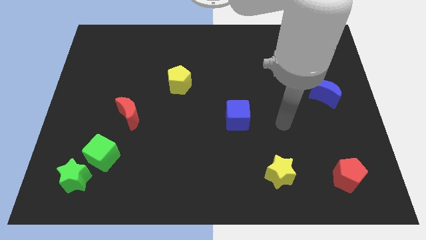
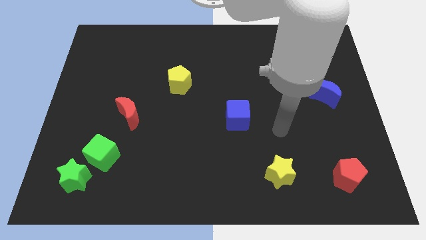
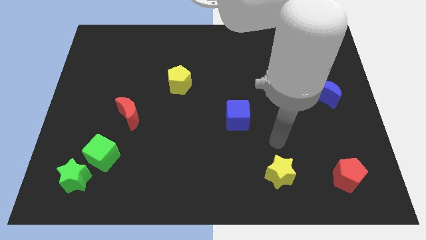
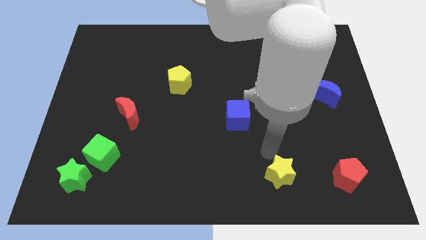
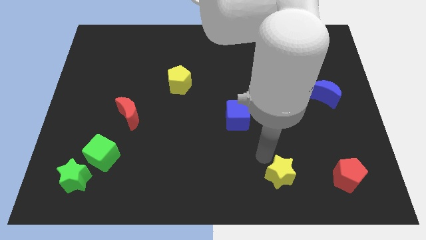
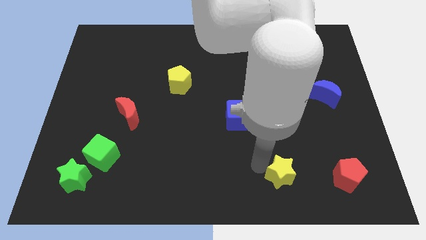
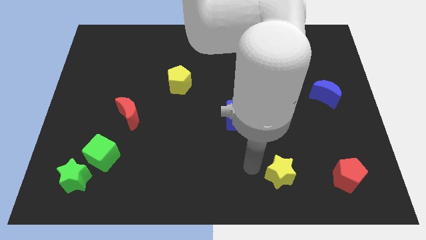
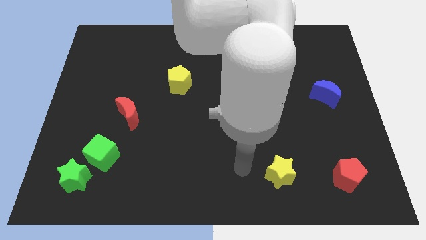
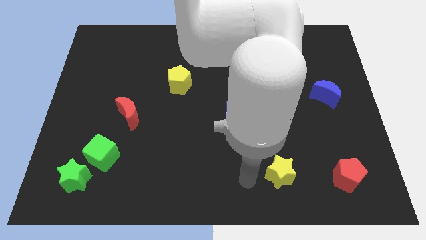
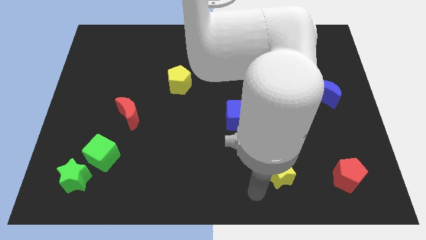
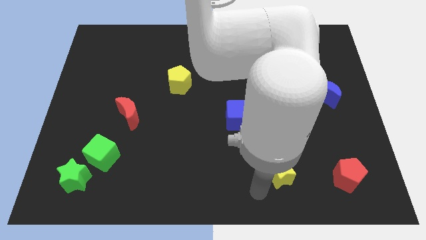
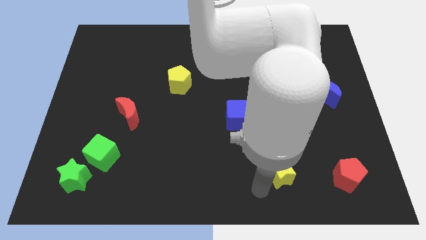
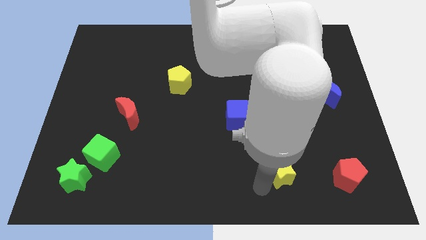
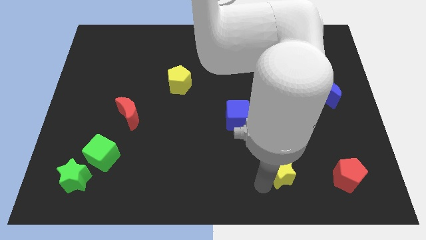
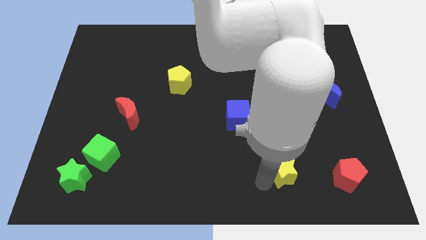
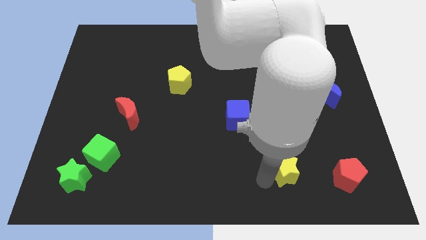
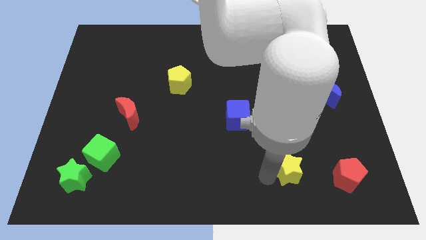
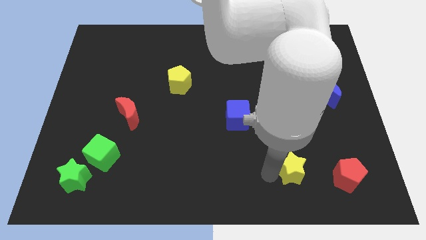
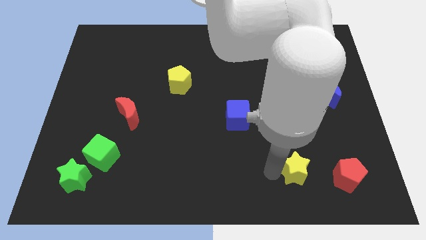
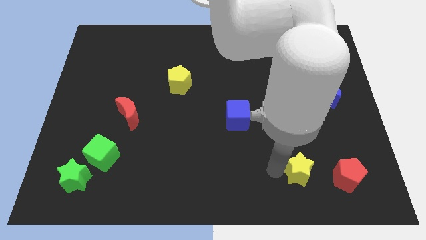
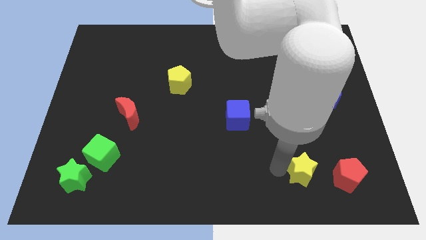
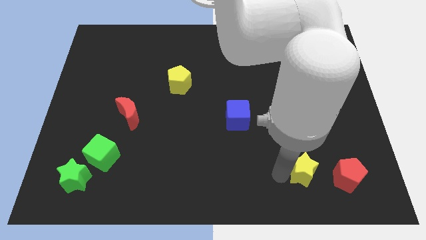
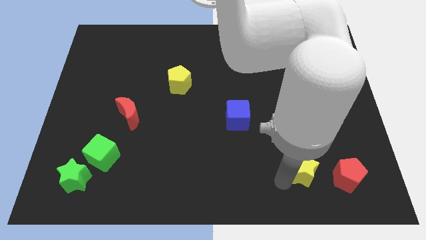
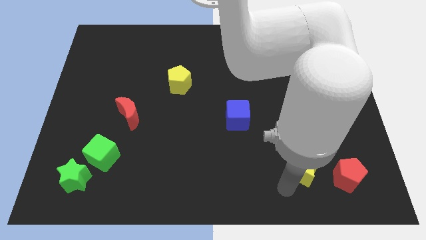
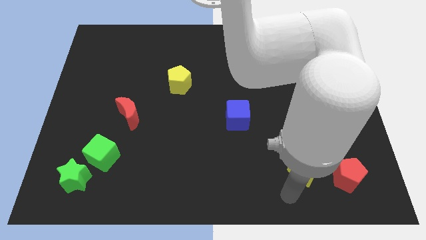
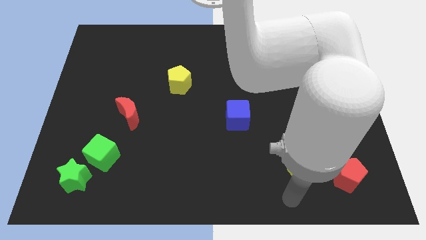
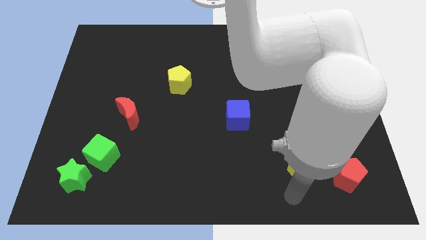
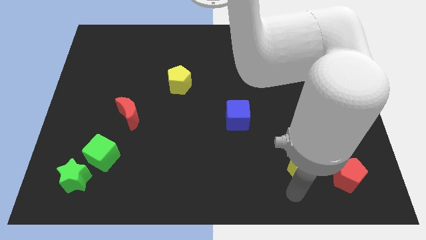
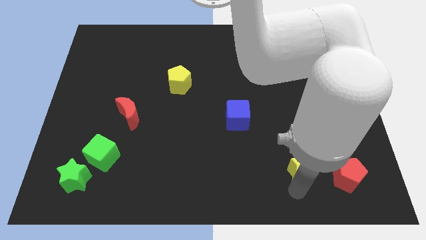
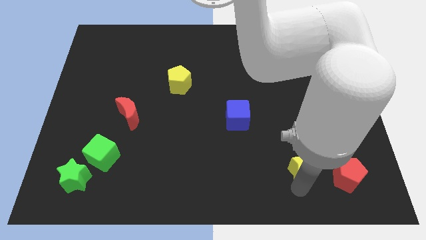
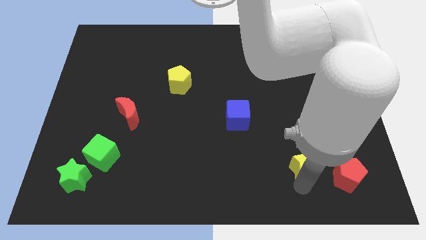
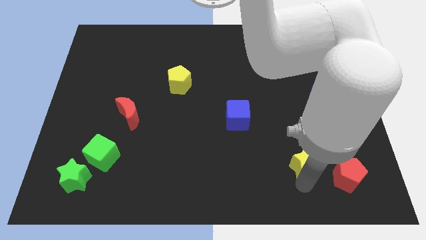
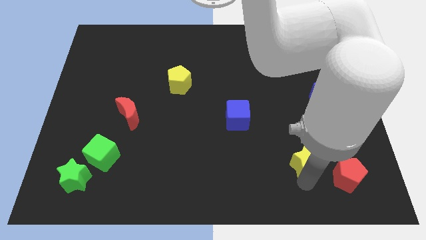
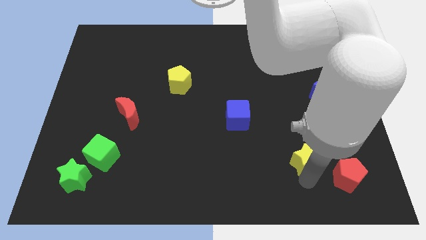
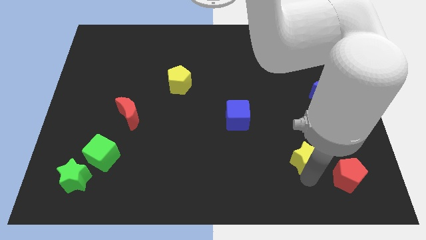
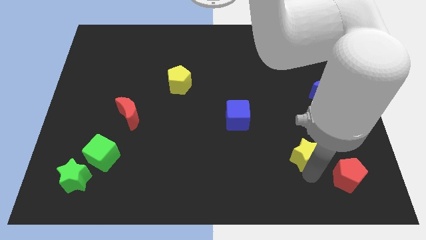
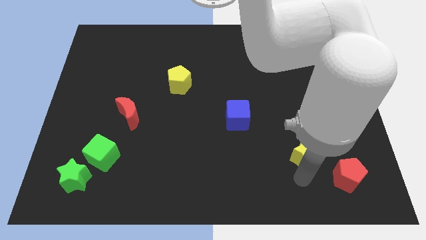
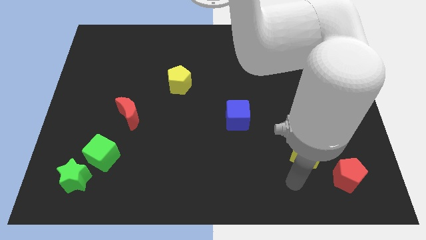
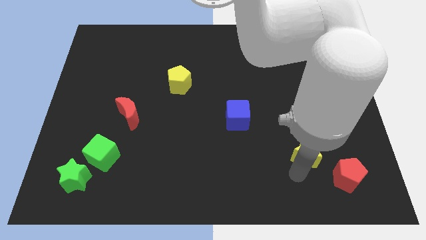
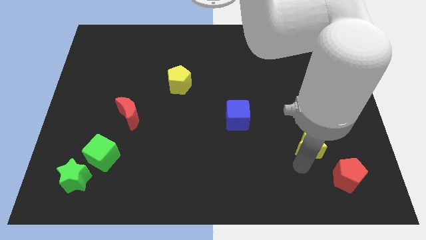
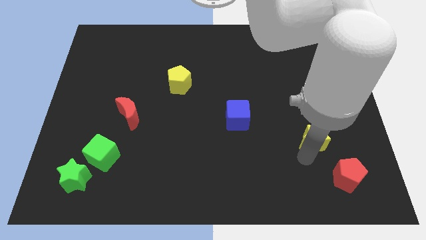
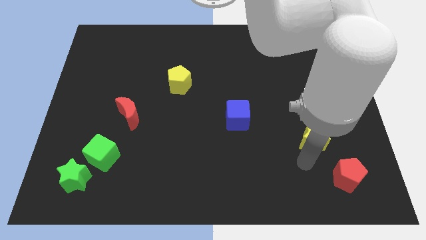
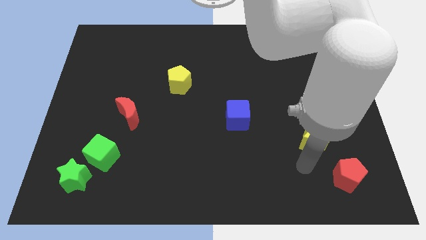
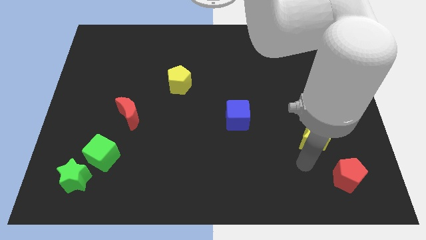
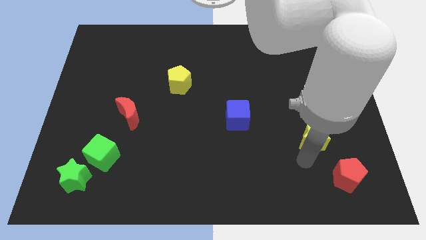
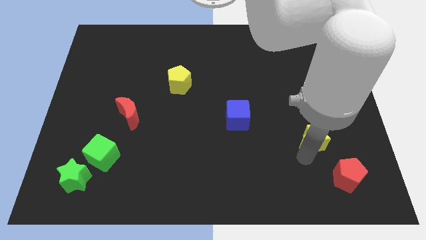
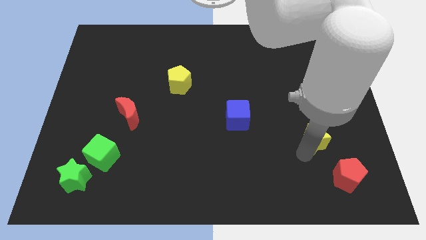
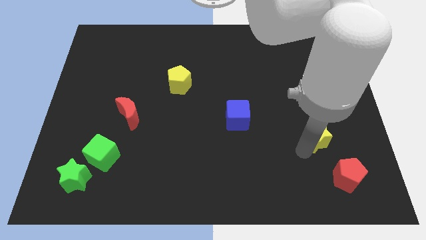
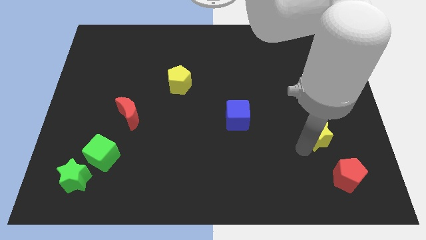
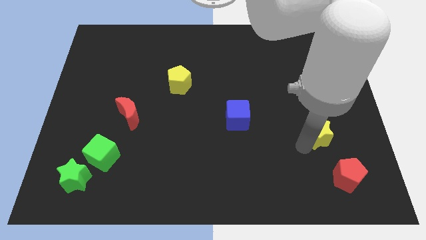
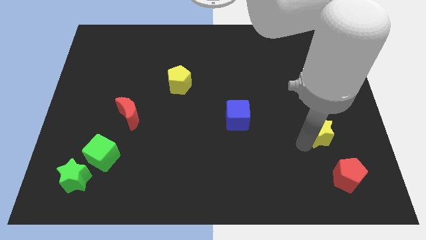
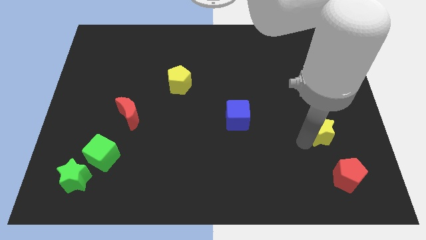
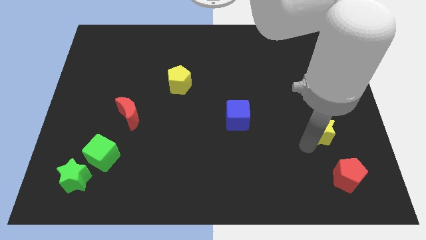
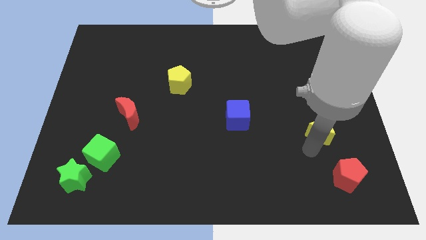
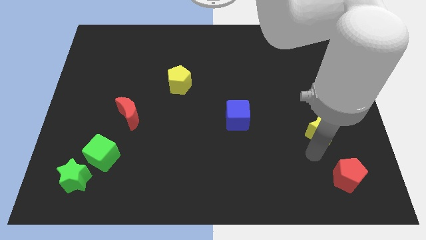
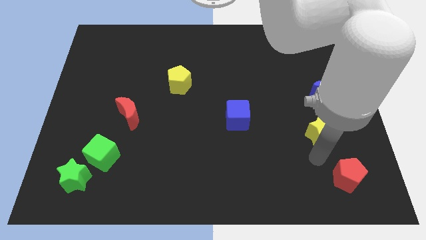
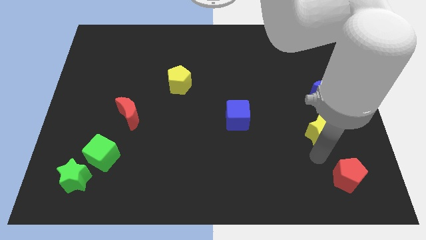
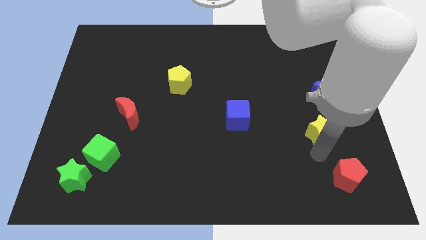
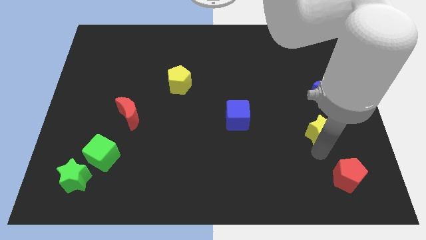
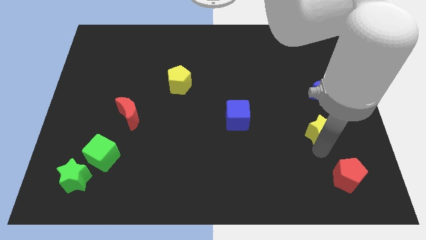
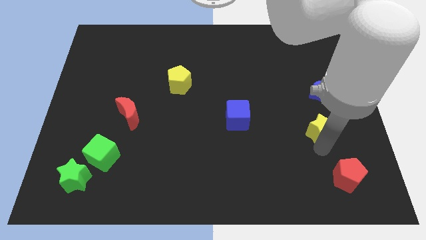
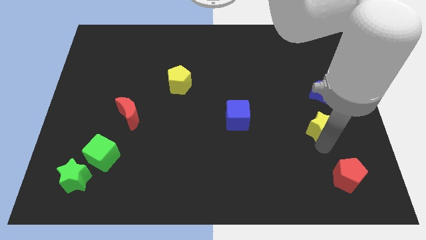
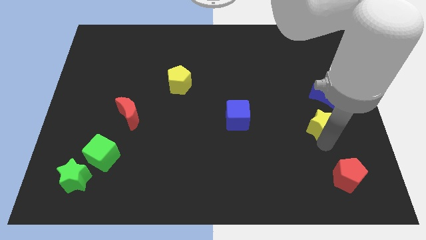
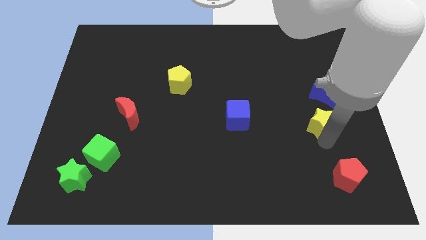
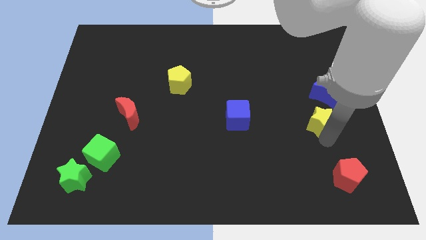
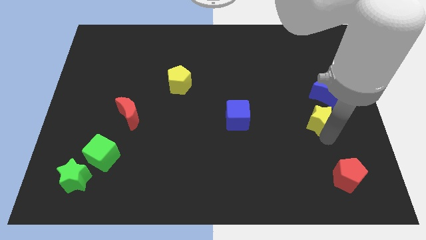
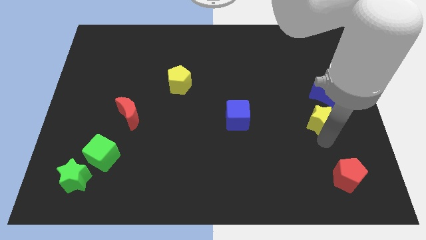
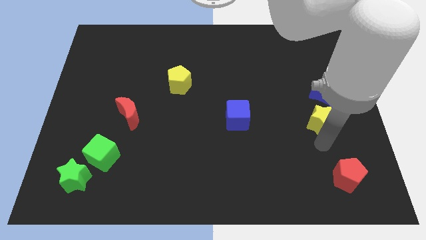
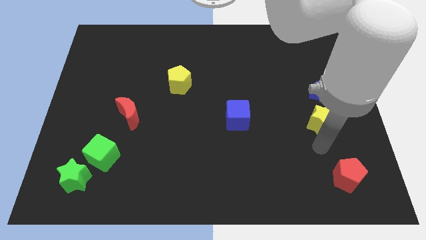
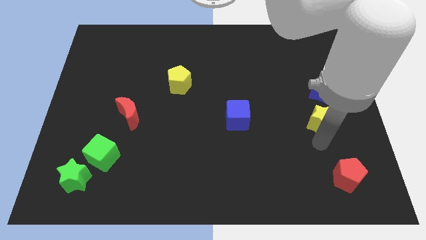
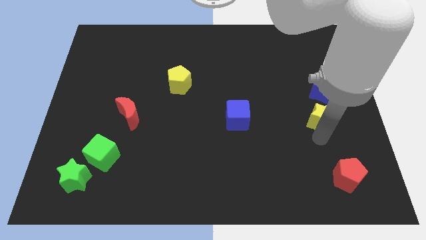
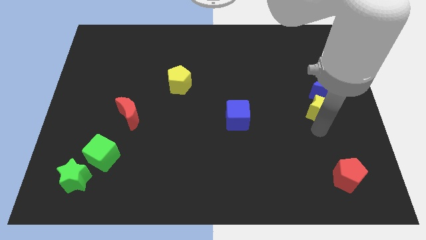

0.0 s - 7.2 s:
push the yellow star to the blue moon
